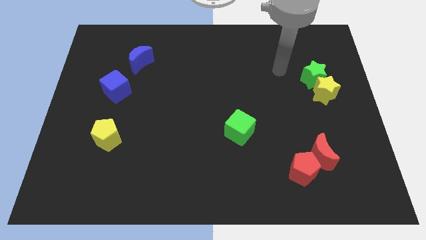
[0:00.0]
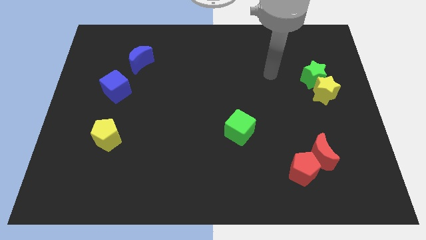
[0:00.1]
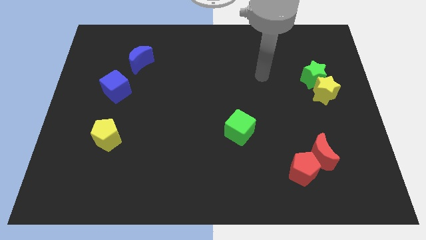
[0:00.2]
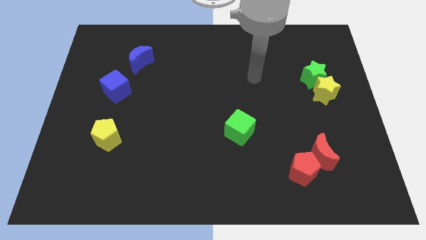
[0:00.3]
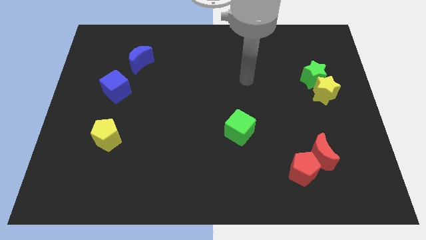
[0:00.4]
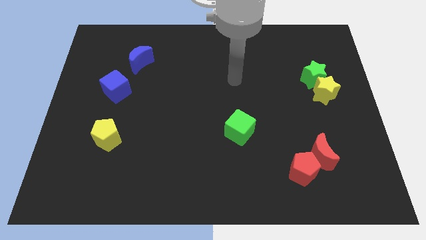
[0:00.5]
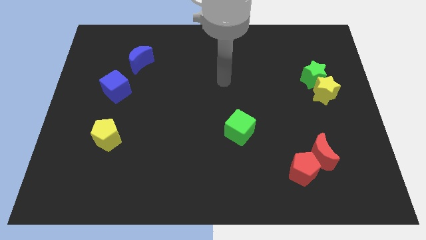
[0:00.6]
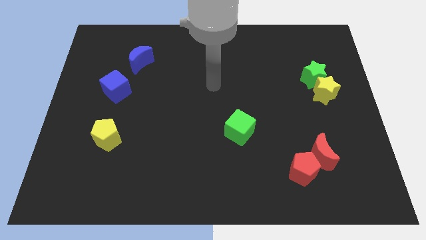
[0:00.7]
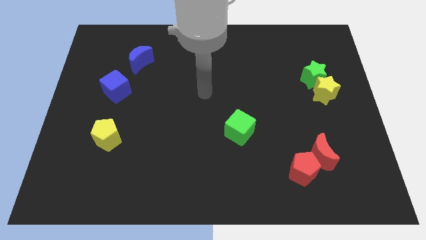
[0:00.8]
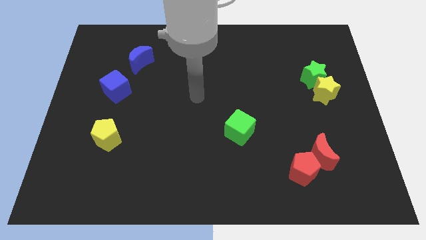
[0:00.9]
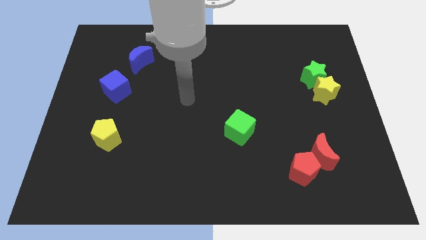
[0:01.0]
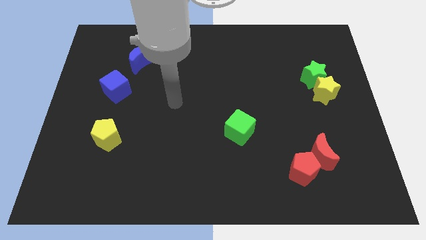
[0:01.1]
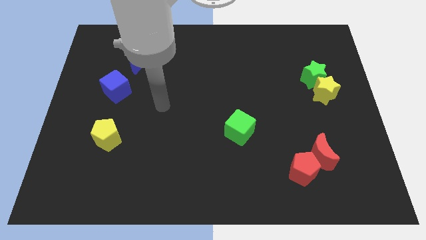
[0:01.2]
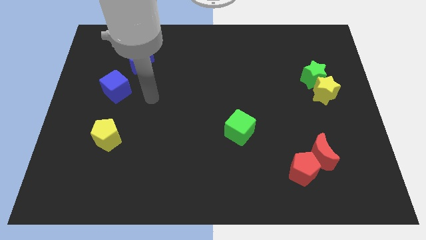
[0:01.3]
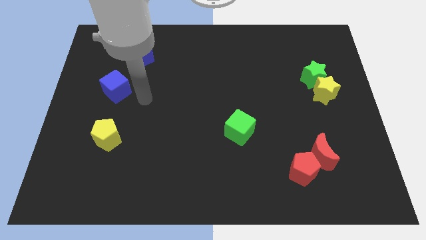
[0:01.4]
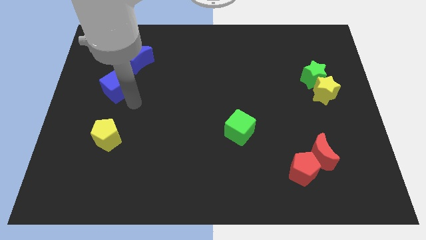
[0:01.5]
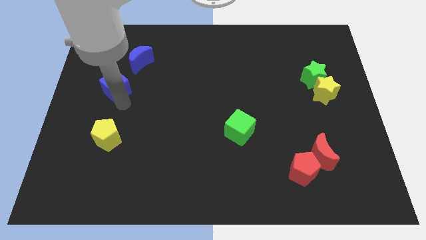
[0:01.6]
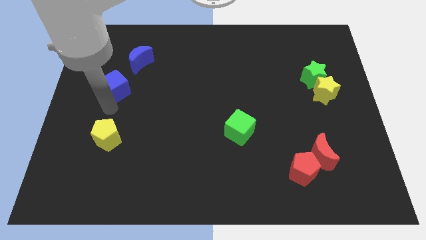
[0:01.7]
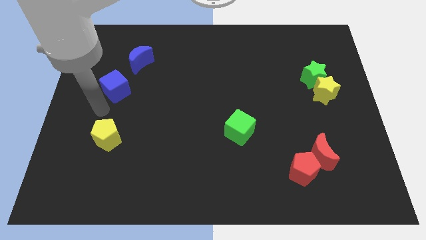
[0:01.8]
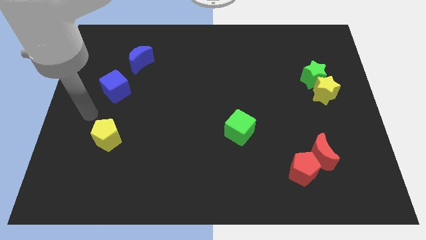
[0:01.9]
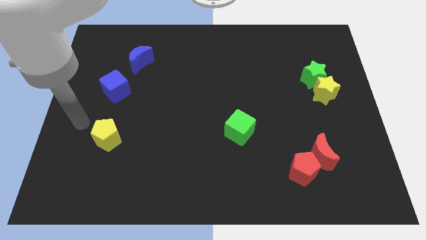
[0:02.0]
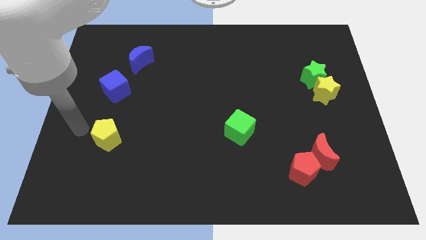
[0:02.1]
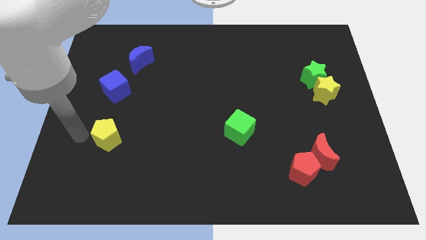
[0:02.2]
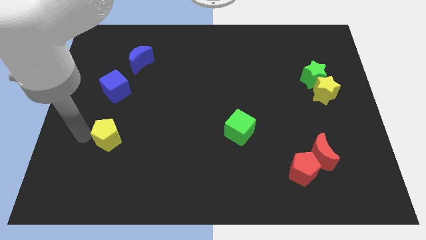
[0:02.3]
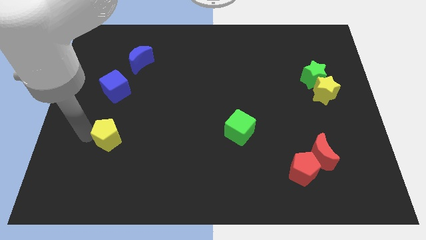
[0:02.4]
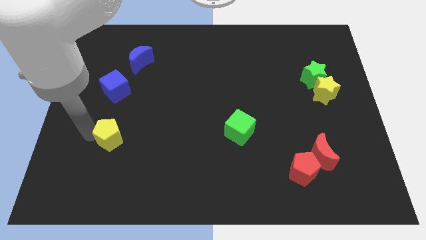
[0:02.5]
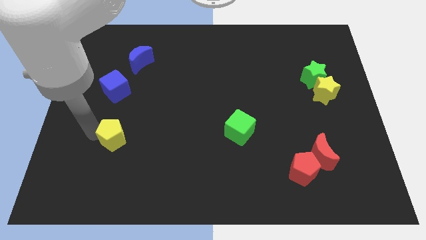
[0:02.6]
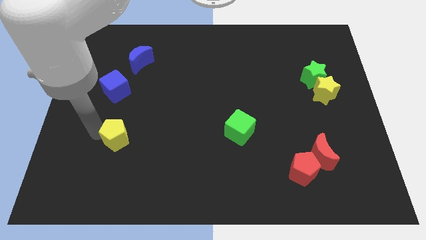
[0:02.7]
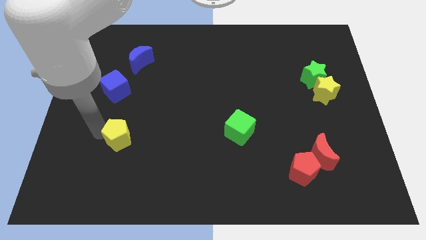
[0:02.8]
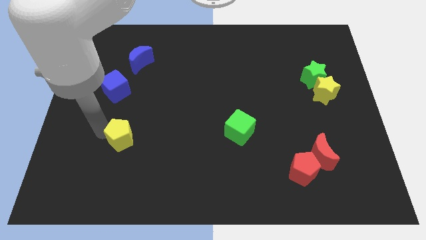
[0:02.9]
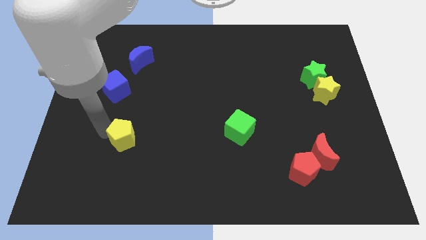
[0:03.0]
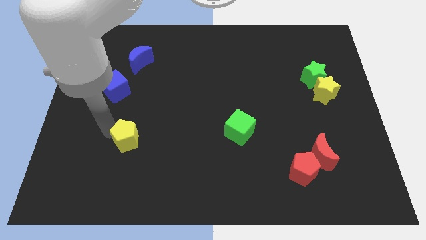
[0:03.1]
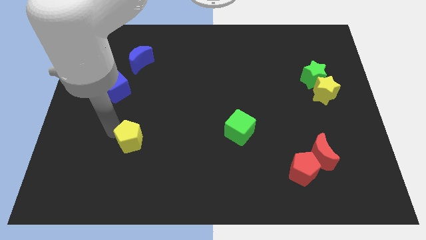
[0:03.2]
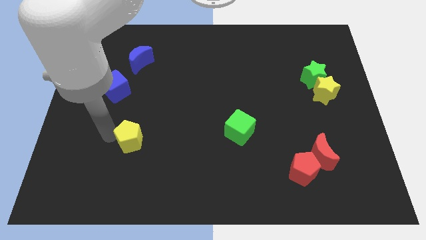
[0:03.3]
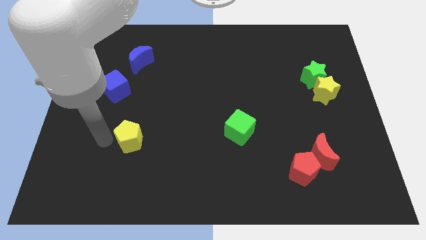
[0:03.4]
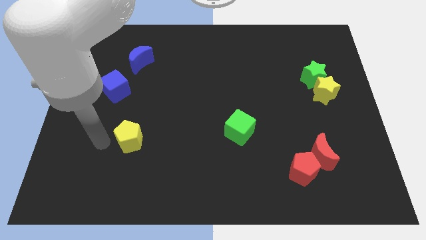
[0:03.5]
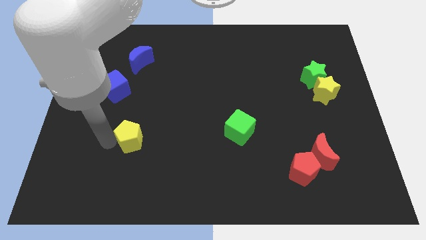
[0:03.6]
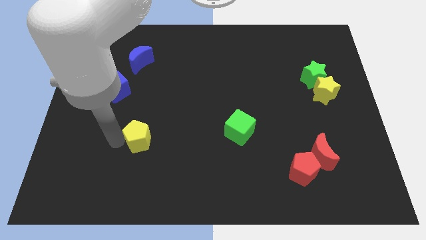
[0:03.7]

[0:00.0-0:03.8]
push the yellow pentagon slightly to the right

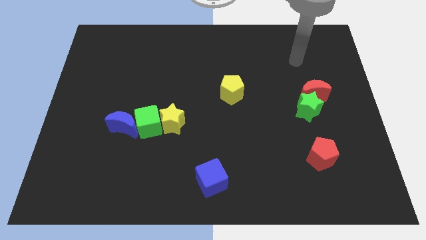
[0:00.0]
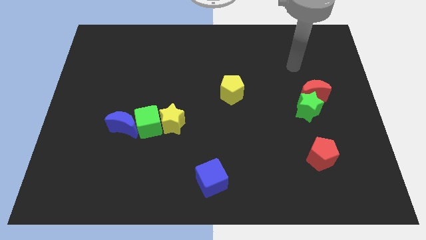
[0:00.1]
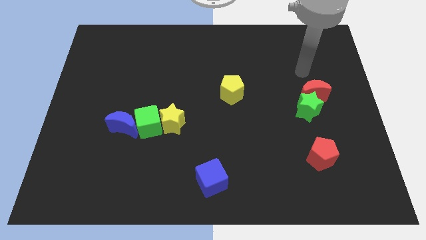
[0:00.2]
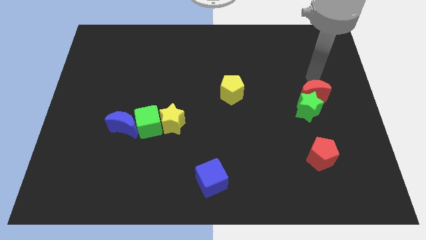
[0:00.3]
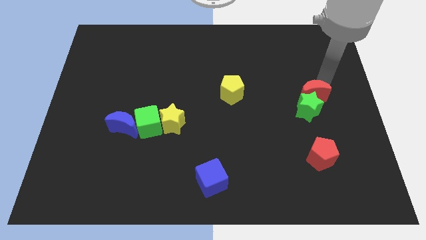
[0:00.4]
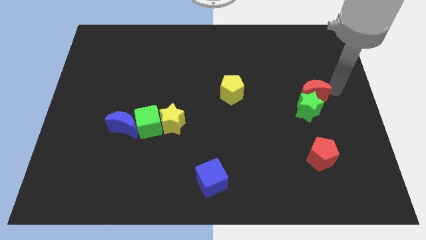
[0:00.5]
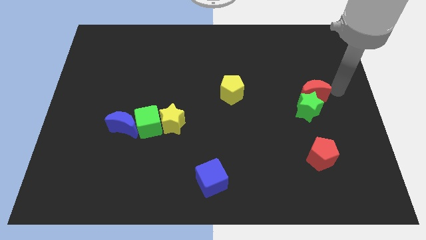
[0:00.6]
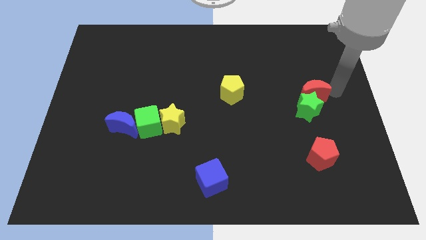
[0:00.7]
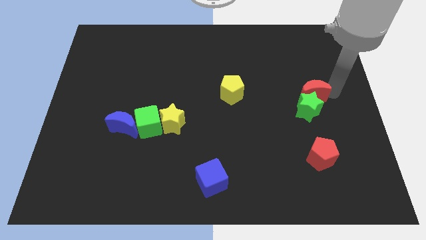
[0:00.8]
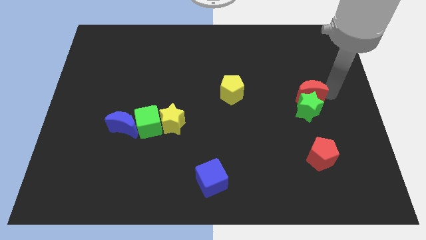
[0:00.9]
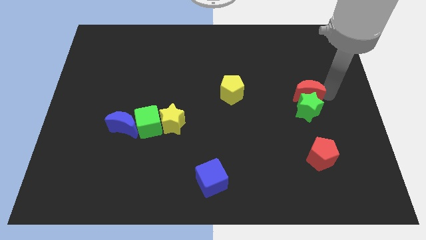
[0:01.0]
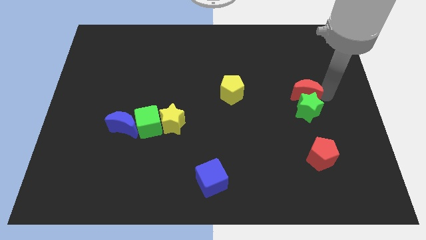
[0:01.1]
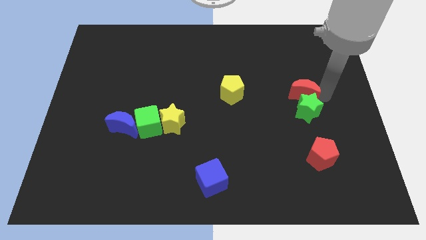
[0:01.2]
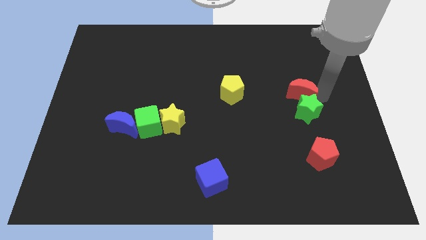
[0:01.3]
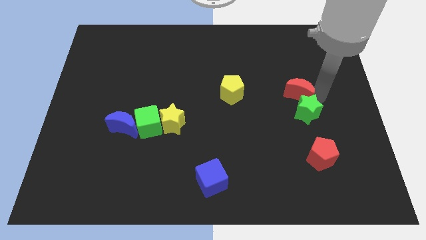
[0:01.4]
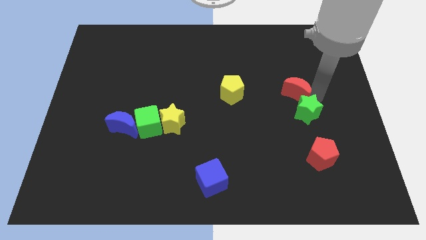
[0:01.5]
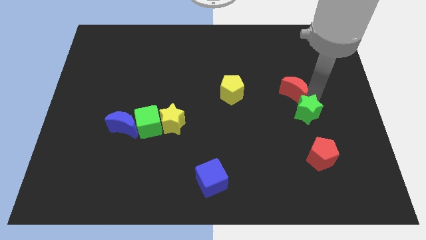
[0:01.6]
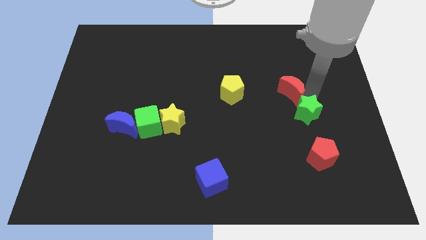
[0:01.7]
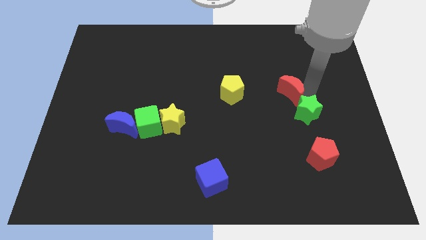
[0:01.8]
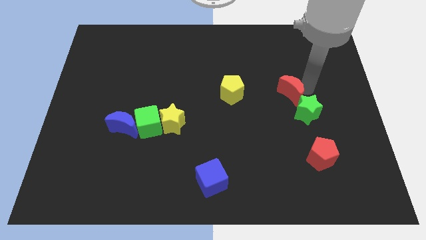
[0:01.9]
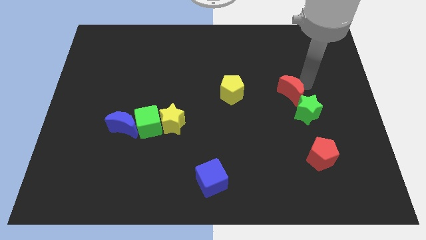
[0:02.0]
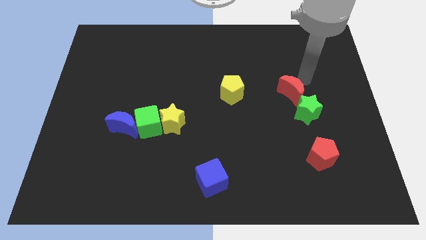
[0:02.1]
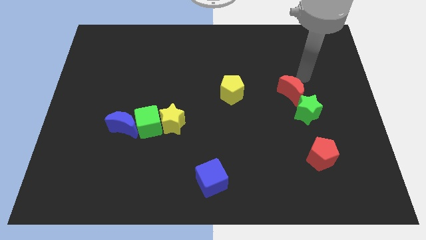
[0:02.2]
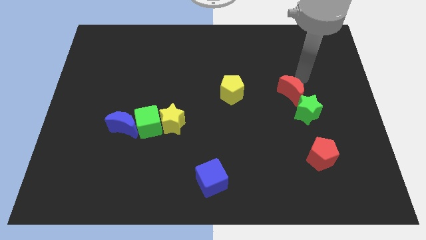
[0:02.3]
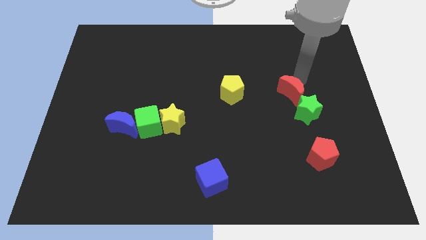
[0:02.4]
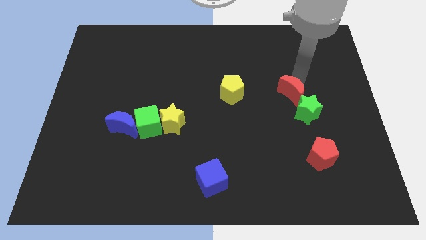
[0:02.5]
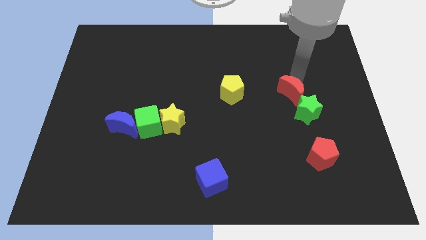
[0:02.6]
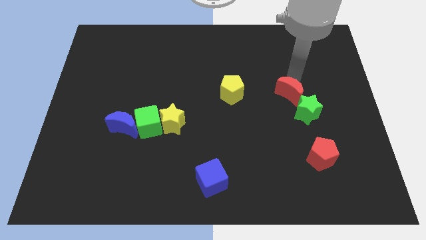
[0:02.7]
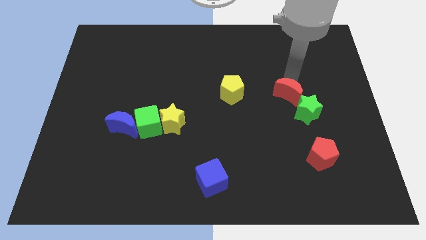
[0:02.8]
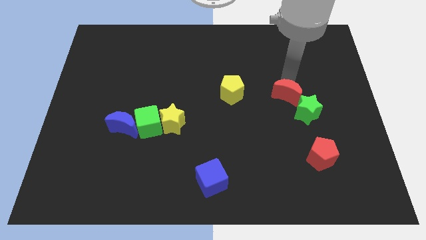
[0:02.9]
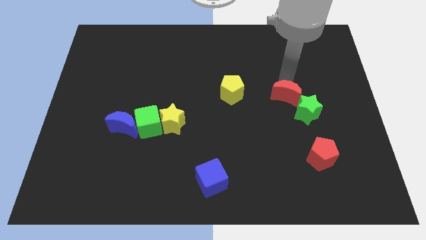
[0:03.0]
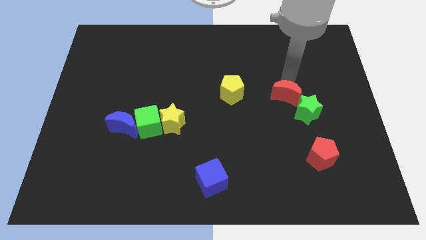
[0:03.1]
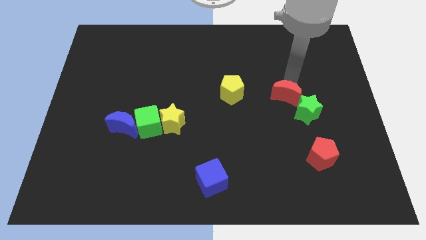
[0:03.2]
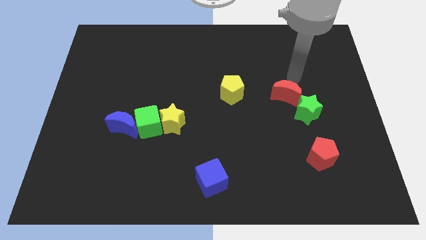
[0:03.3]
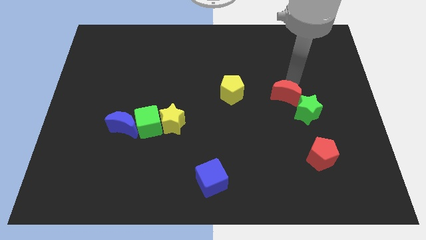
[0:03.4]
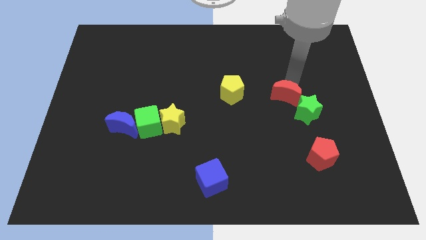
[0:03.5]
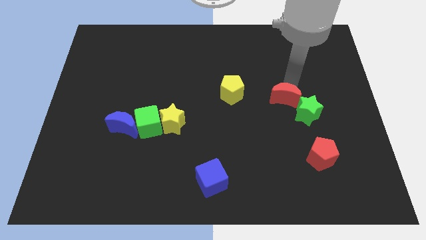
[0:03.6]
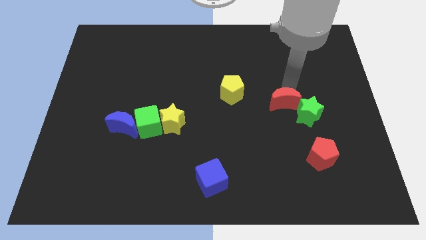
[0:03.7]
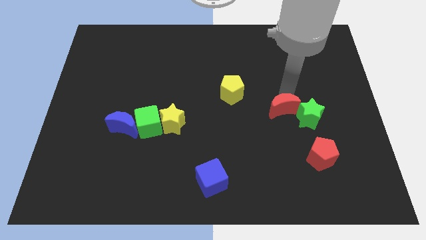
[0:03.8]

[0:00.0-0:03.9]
move the red moon downwards and to the left a bit
